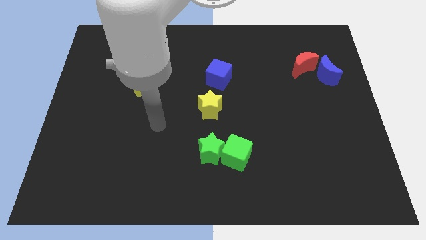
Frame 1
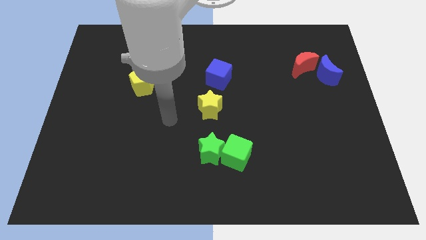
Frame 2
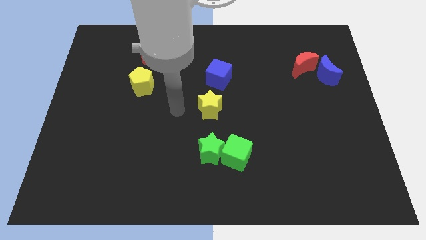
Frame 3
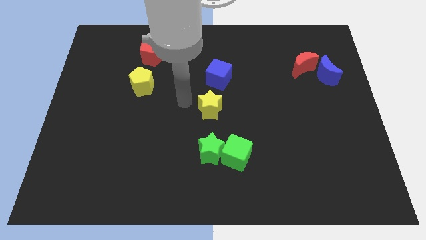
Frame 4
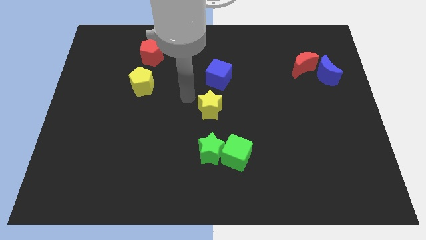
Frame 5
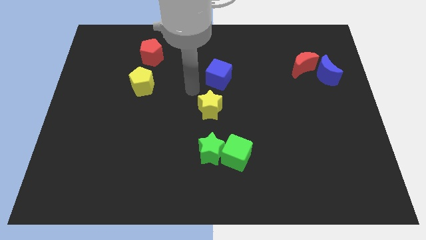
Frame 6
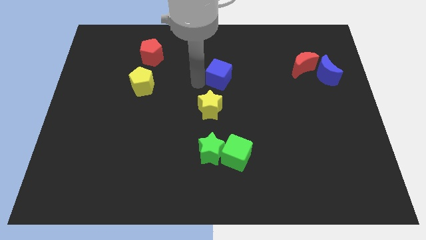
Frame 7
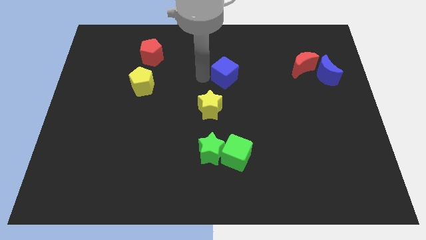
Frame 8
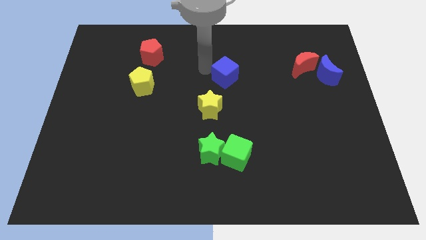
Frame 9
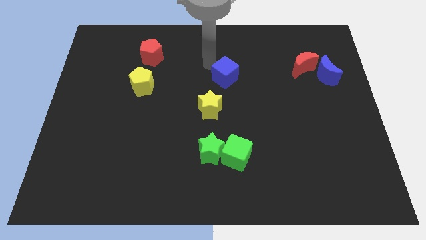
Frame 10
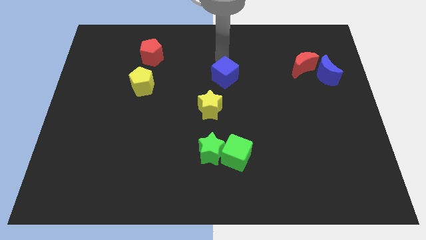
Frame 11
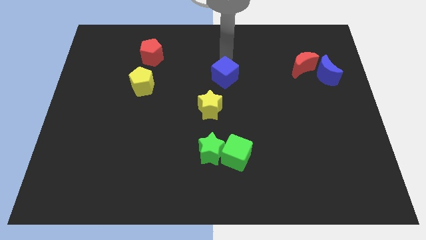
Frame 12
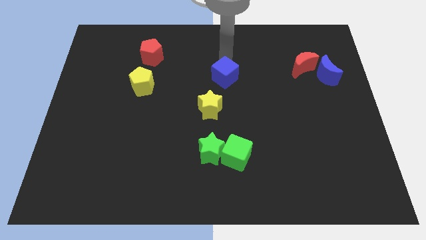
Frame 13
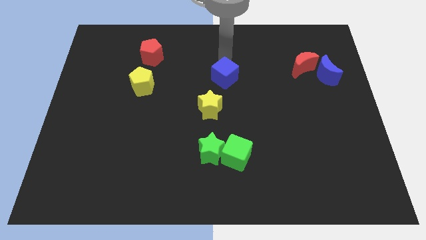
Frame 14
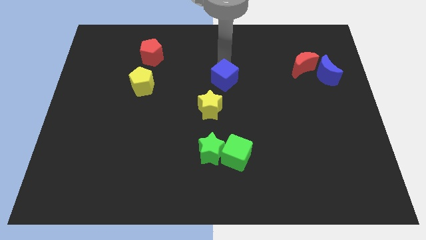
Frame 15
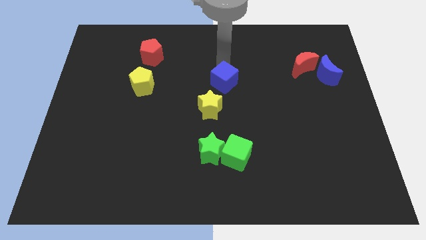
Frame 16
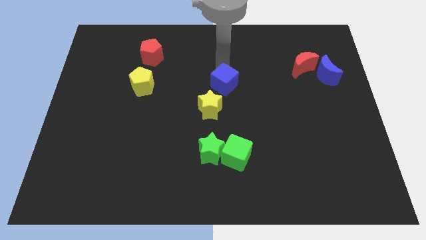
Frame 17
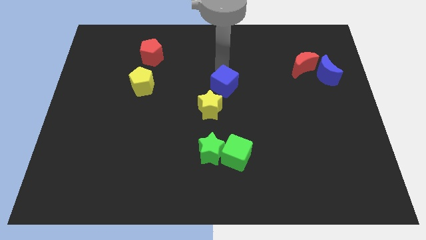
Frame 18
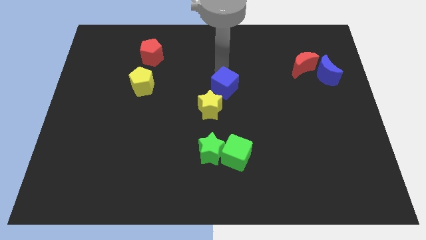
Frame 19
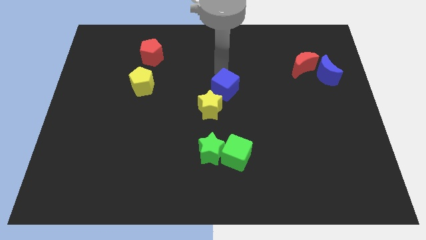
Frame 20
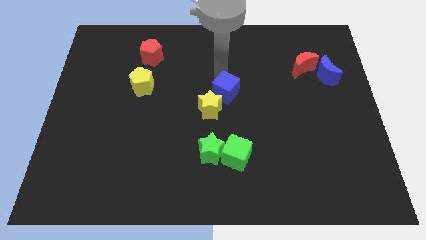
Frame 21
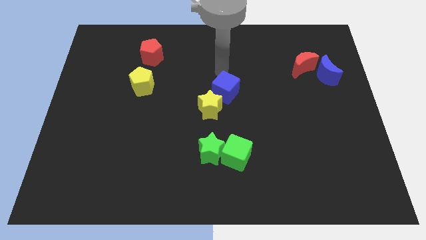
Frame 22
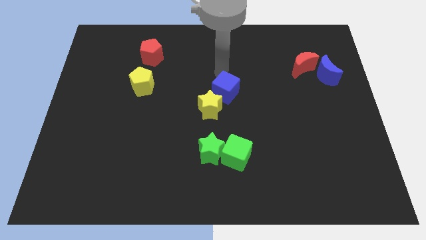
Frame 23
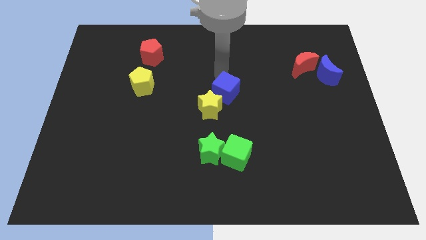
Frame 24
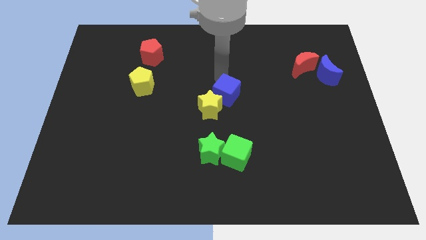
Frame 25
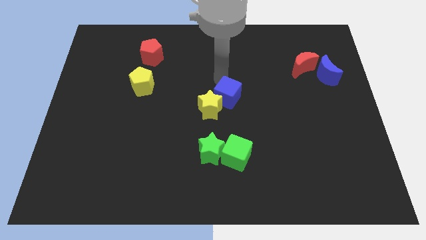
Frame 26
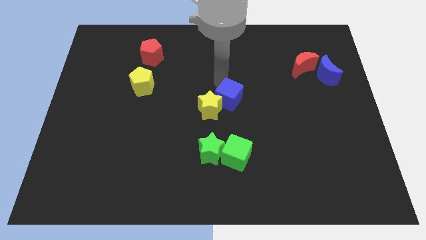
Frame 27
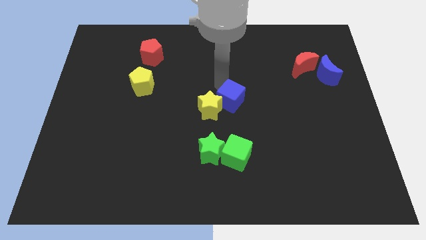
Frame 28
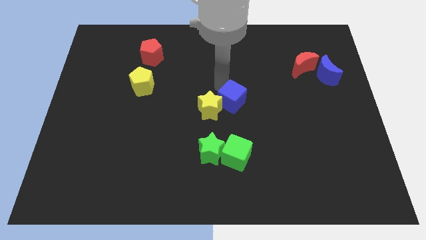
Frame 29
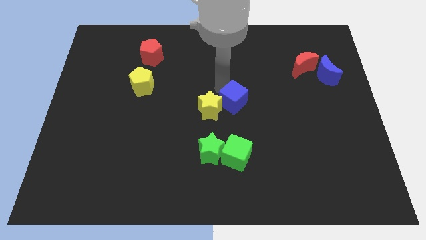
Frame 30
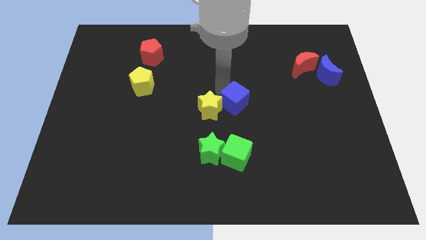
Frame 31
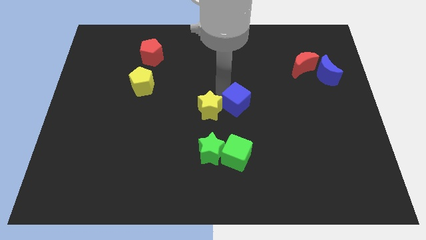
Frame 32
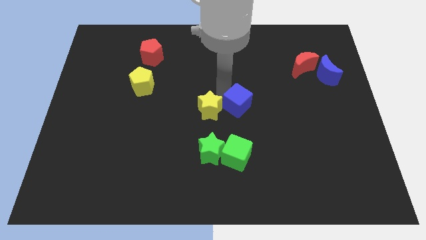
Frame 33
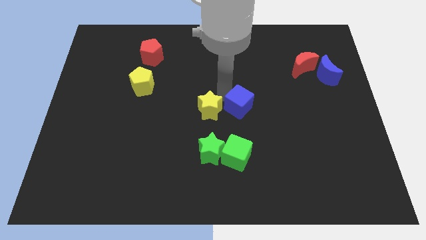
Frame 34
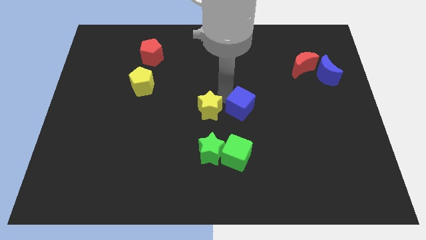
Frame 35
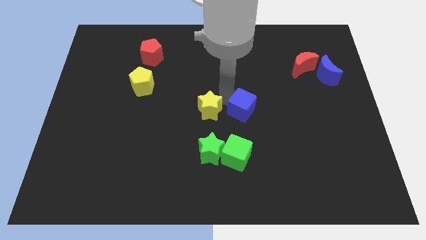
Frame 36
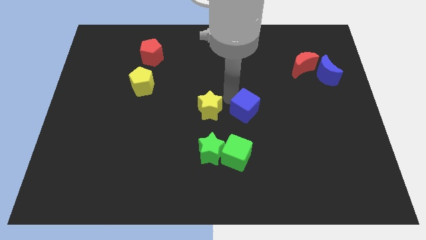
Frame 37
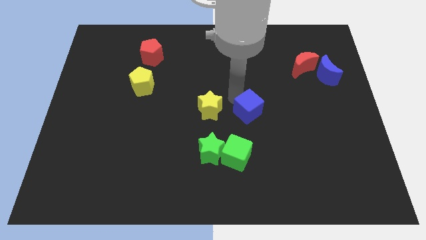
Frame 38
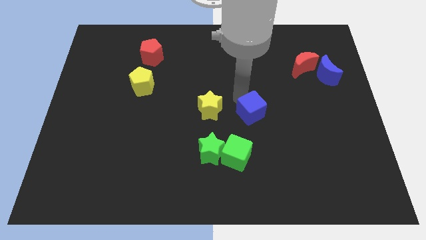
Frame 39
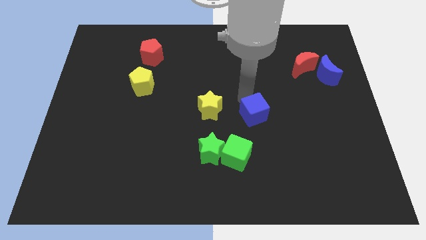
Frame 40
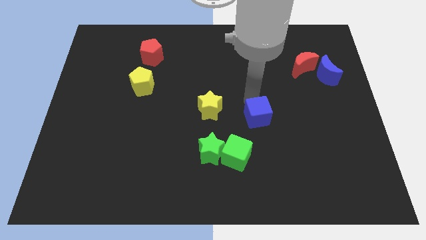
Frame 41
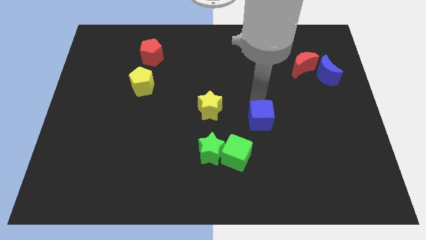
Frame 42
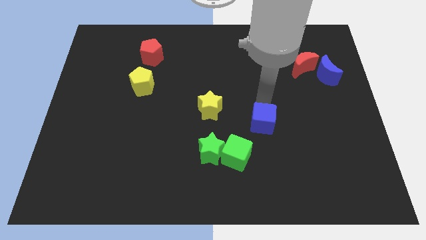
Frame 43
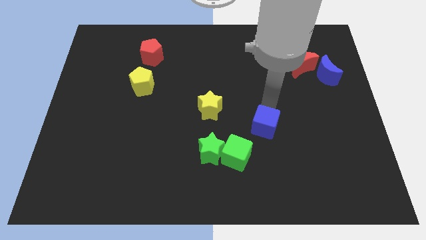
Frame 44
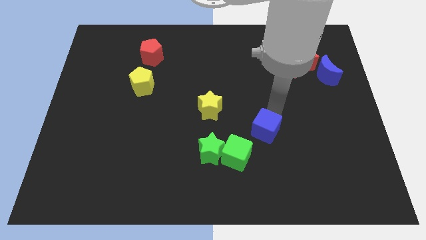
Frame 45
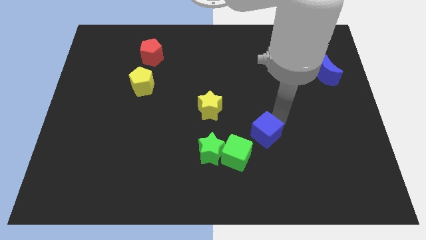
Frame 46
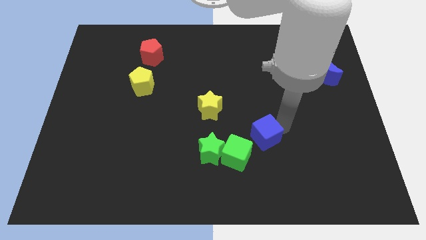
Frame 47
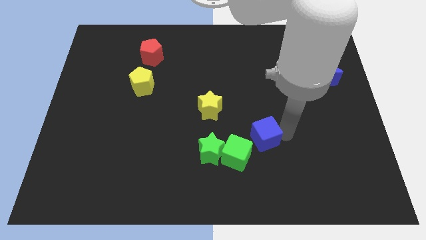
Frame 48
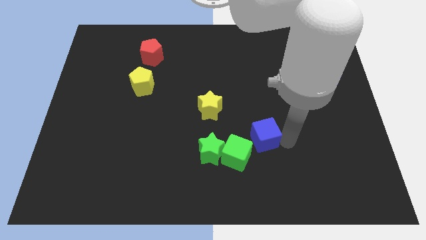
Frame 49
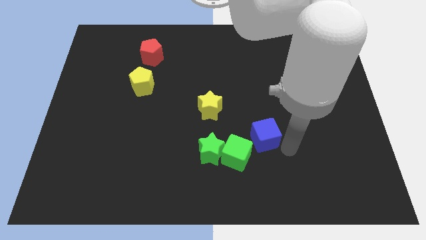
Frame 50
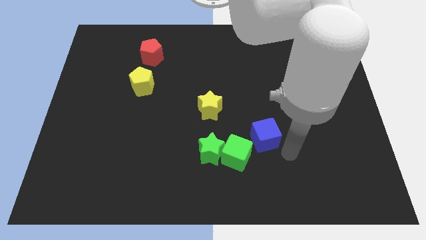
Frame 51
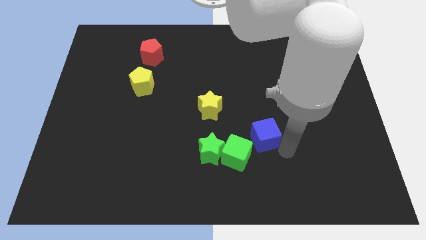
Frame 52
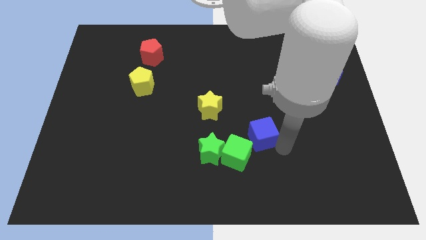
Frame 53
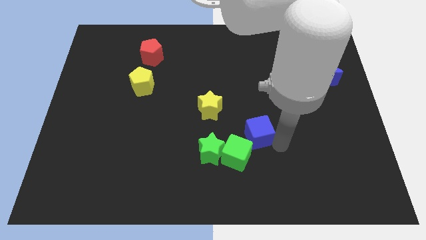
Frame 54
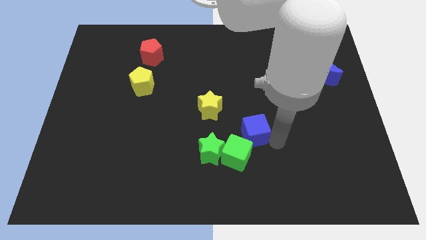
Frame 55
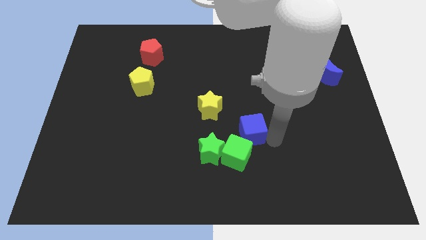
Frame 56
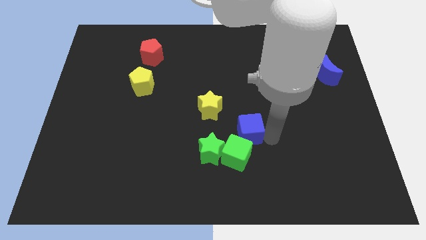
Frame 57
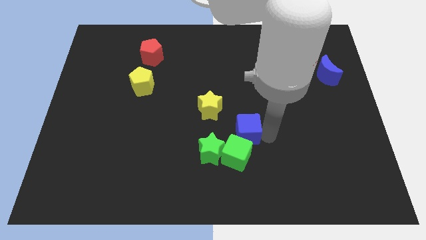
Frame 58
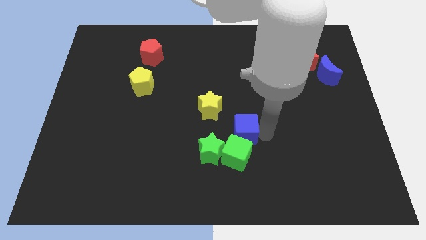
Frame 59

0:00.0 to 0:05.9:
slide the blue cube close to the green cube

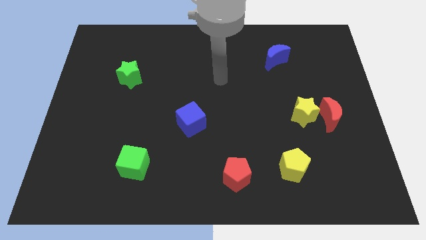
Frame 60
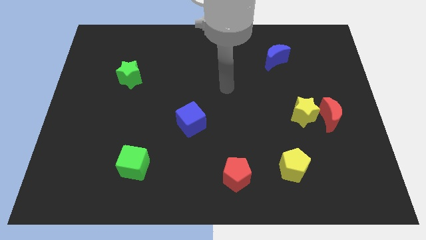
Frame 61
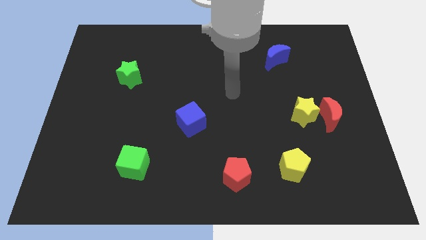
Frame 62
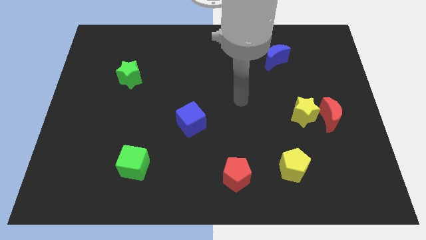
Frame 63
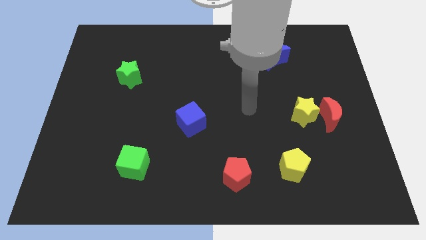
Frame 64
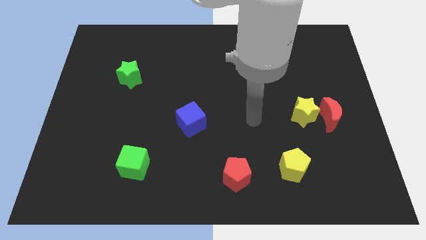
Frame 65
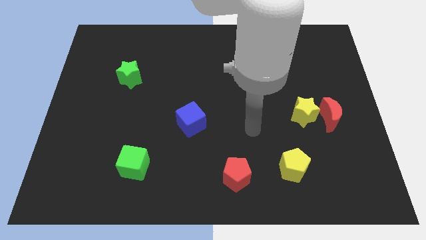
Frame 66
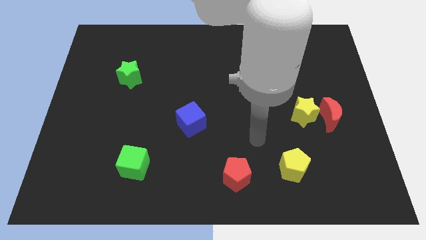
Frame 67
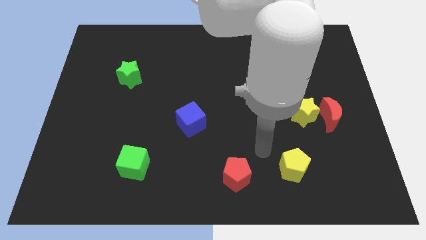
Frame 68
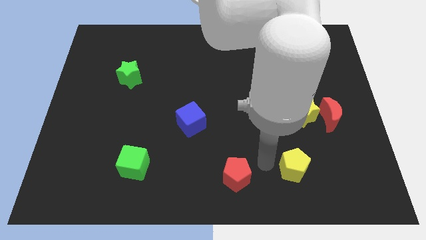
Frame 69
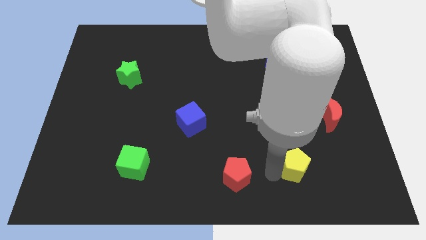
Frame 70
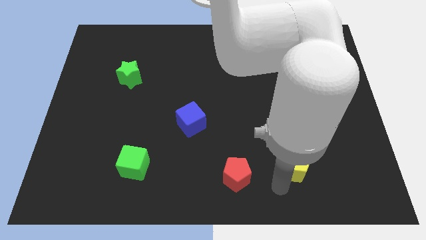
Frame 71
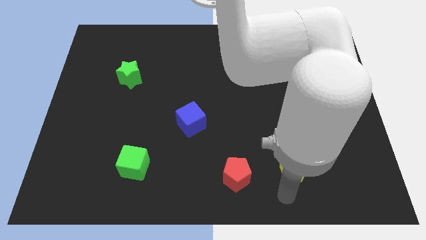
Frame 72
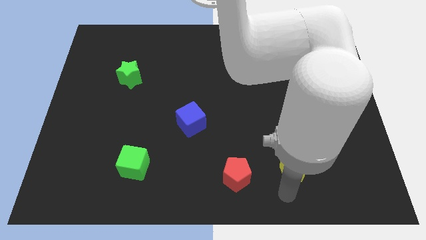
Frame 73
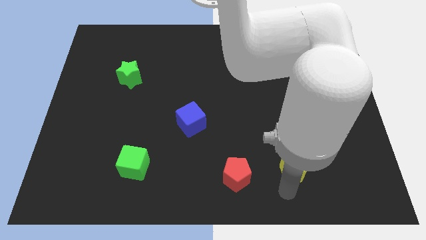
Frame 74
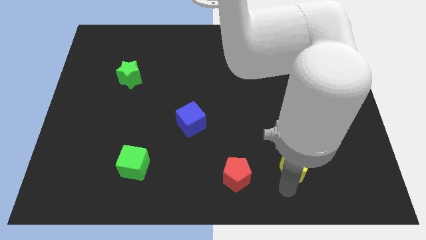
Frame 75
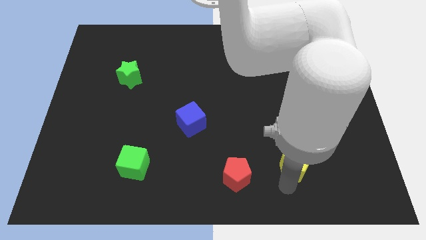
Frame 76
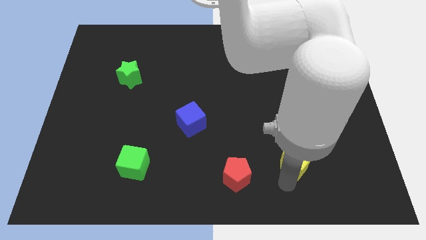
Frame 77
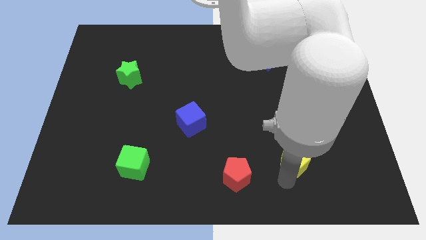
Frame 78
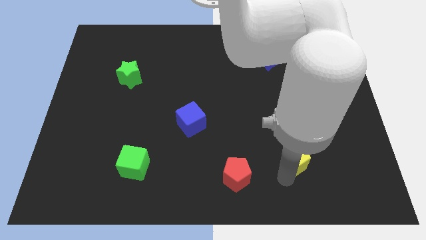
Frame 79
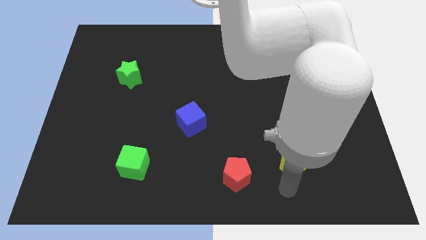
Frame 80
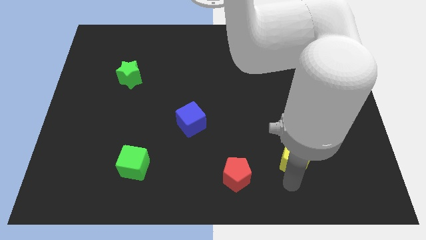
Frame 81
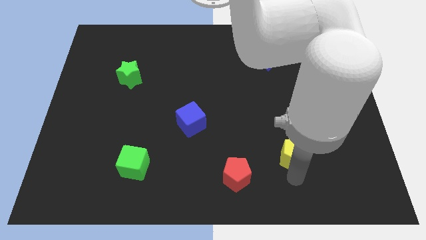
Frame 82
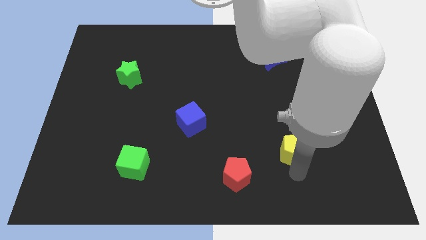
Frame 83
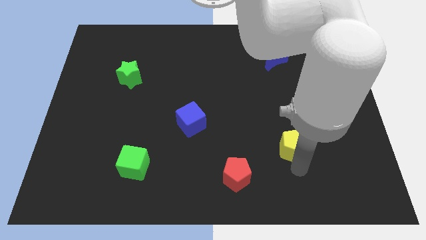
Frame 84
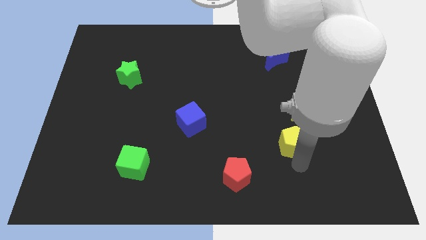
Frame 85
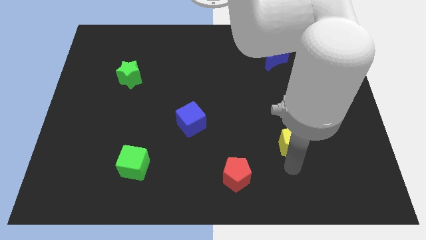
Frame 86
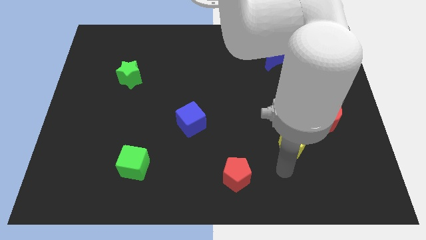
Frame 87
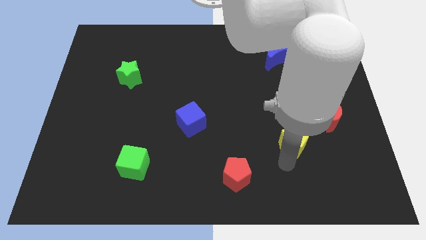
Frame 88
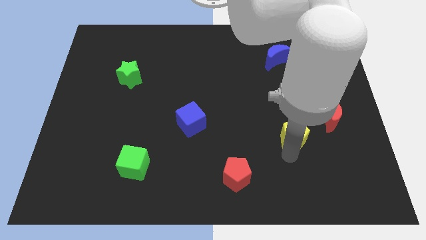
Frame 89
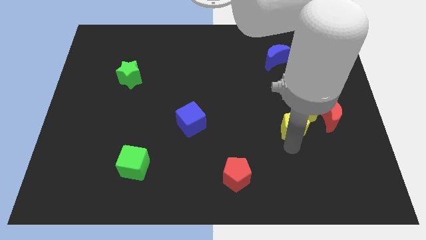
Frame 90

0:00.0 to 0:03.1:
put the yellow pentagon close to the yellow star
